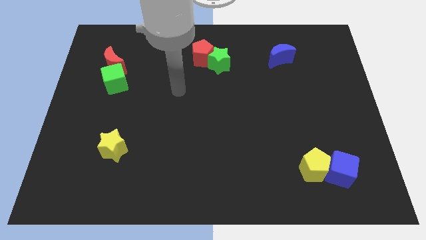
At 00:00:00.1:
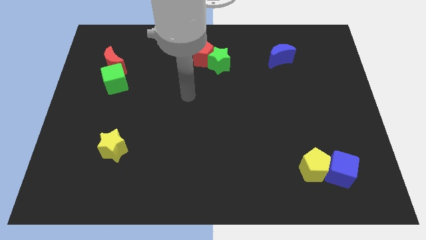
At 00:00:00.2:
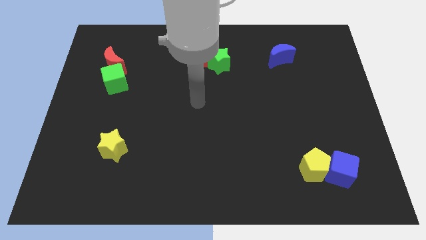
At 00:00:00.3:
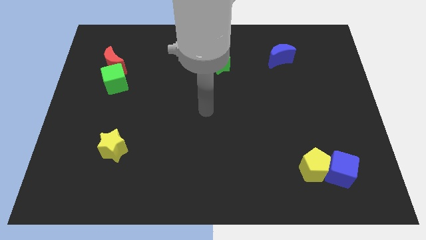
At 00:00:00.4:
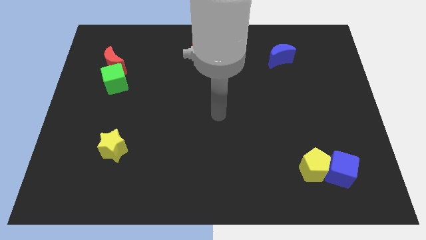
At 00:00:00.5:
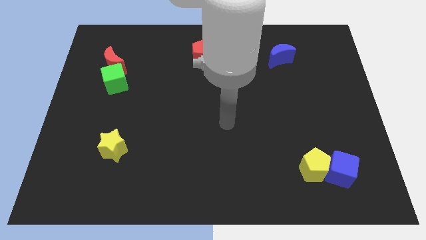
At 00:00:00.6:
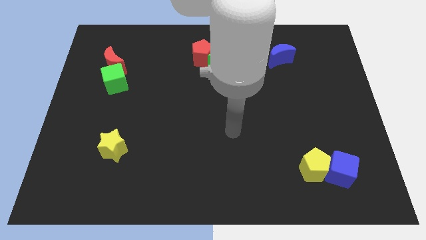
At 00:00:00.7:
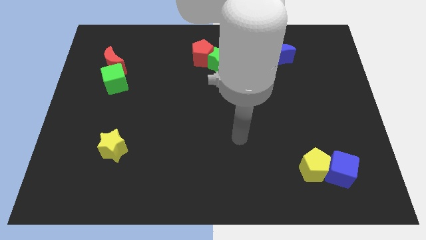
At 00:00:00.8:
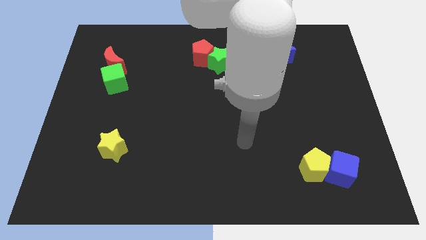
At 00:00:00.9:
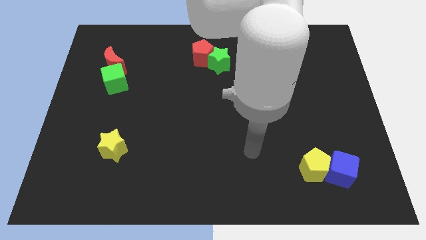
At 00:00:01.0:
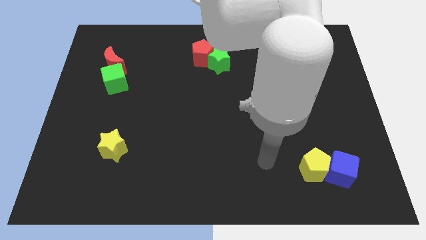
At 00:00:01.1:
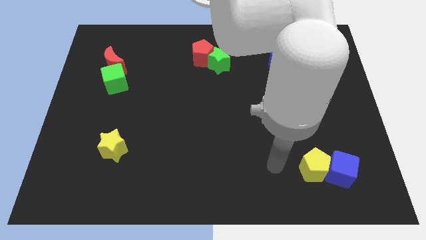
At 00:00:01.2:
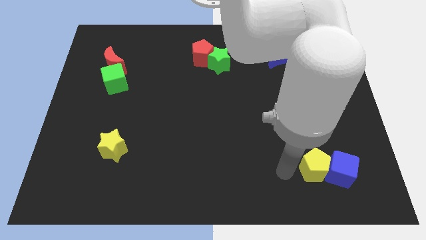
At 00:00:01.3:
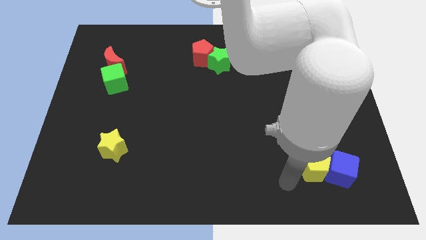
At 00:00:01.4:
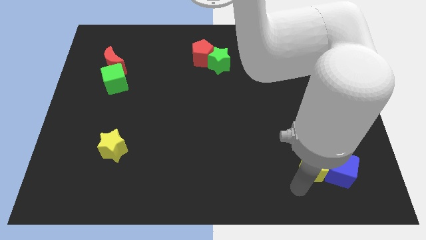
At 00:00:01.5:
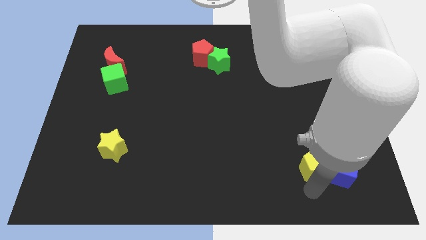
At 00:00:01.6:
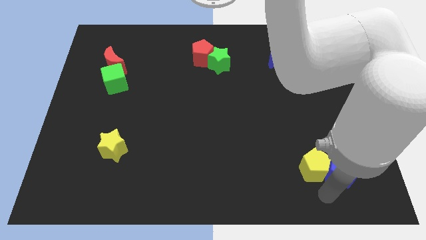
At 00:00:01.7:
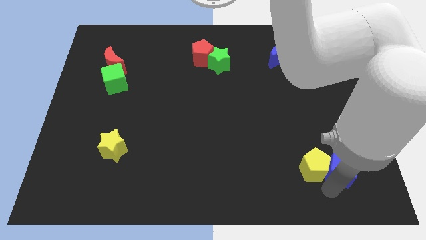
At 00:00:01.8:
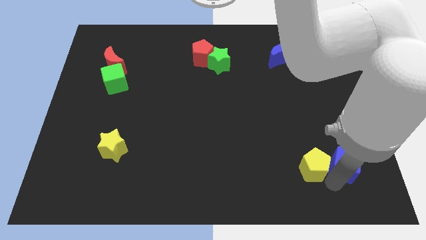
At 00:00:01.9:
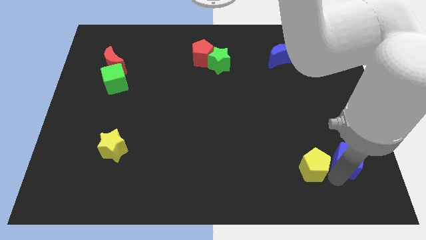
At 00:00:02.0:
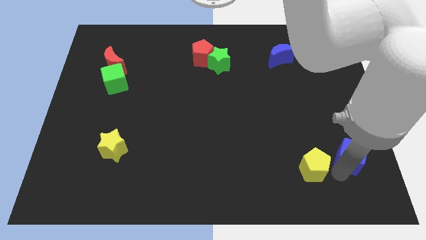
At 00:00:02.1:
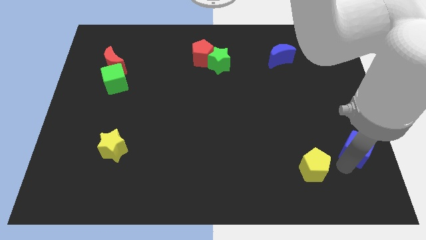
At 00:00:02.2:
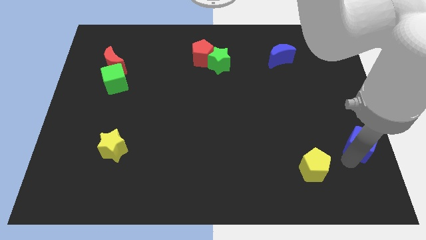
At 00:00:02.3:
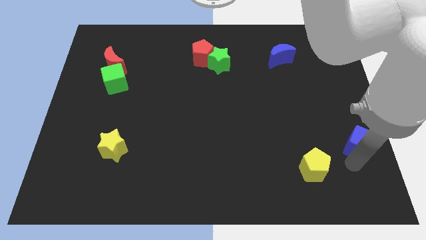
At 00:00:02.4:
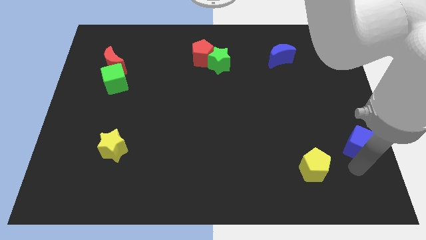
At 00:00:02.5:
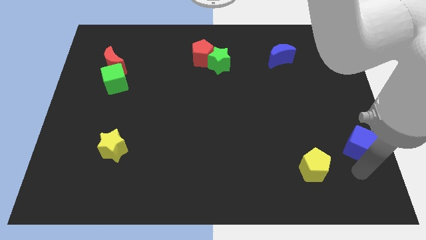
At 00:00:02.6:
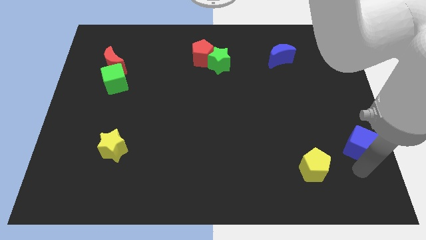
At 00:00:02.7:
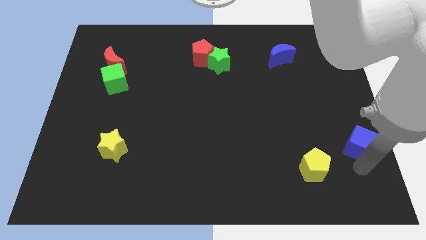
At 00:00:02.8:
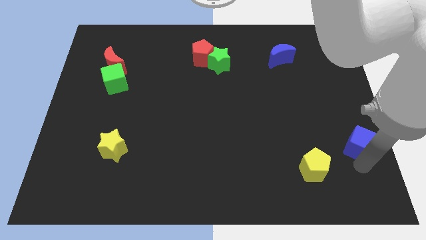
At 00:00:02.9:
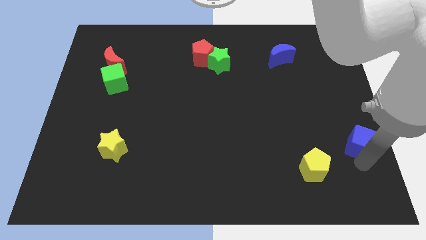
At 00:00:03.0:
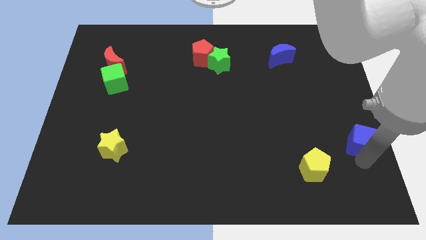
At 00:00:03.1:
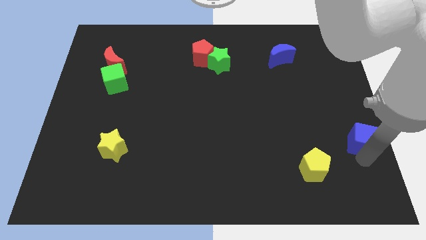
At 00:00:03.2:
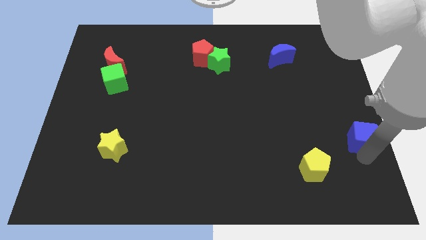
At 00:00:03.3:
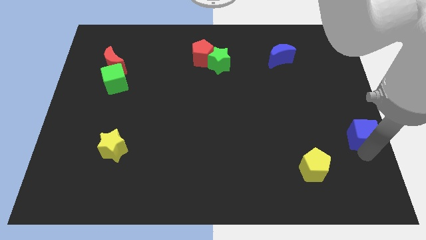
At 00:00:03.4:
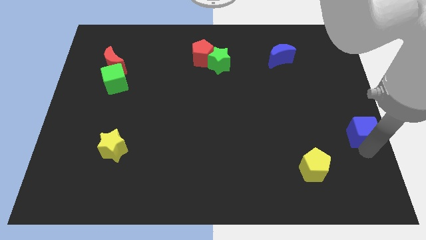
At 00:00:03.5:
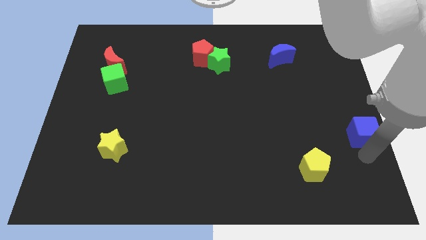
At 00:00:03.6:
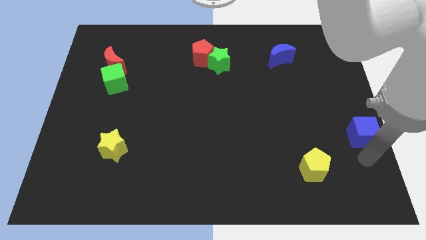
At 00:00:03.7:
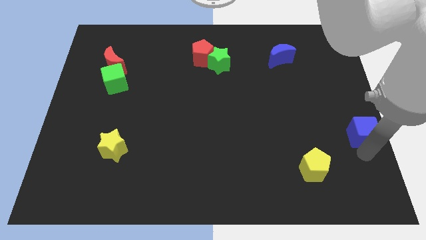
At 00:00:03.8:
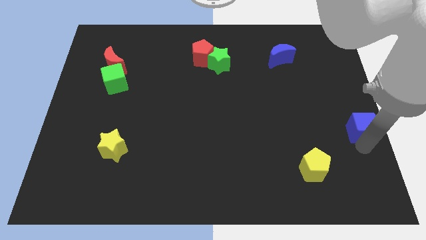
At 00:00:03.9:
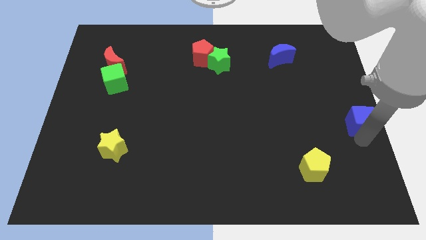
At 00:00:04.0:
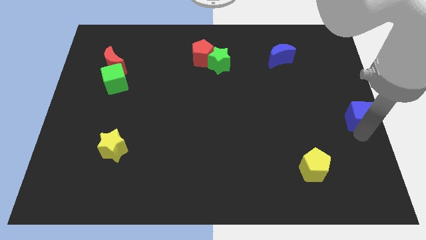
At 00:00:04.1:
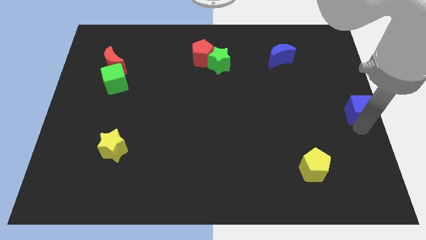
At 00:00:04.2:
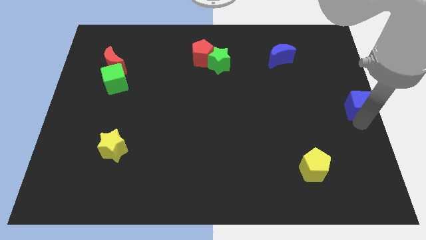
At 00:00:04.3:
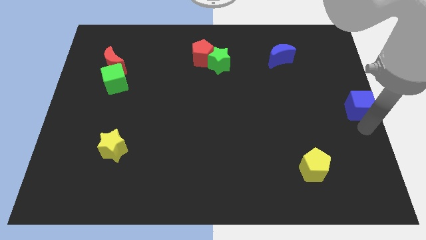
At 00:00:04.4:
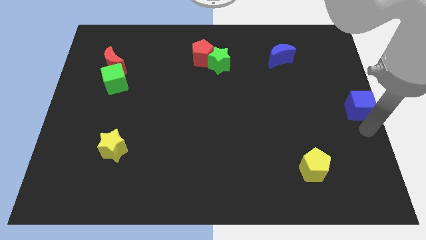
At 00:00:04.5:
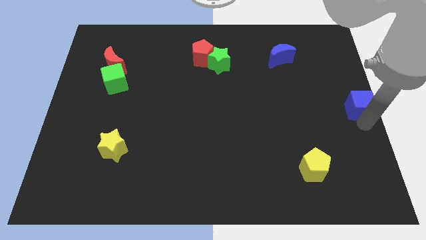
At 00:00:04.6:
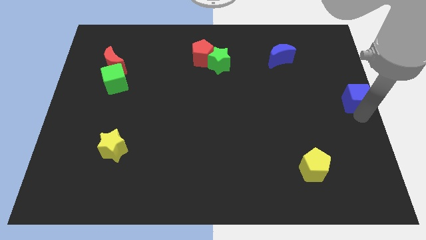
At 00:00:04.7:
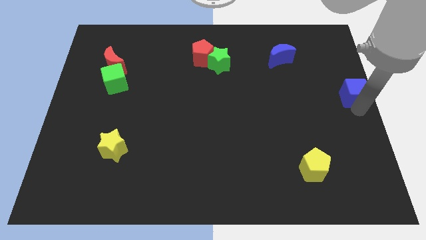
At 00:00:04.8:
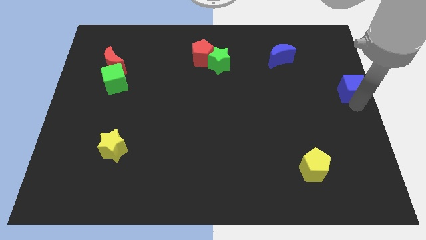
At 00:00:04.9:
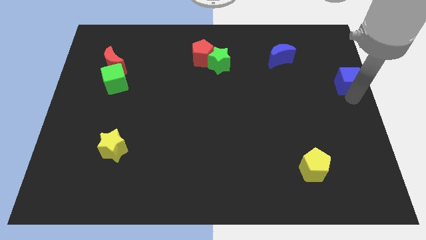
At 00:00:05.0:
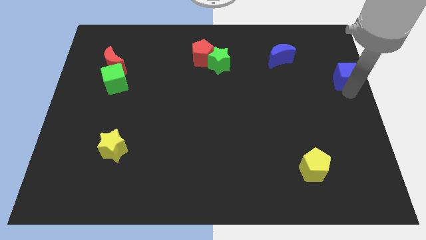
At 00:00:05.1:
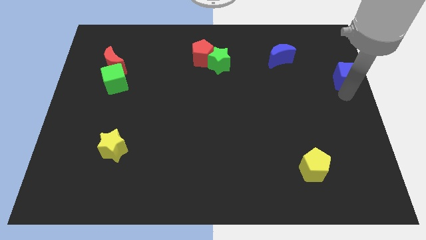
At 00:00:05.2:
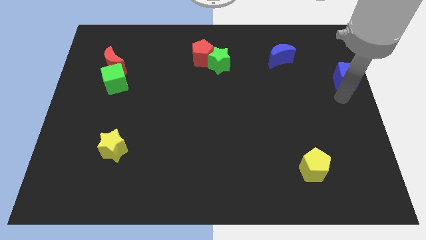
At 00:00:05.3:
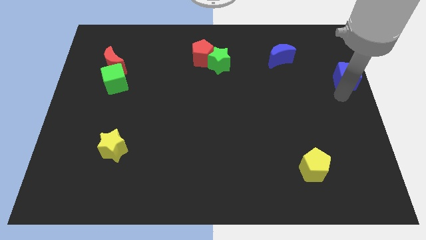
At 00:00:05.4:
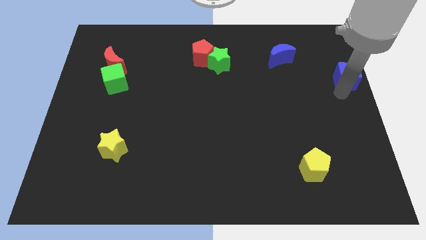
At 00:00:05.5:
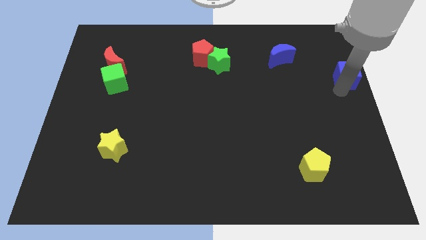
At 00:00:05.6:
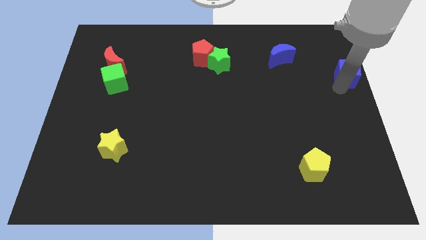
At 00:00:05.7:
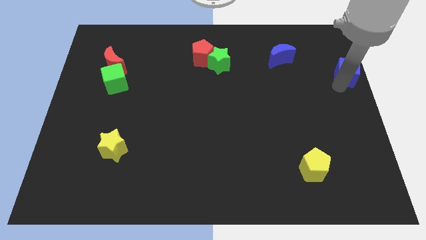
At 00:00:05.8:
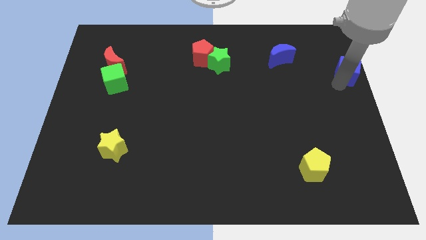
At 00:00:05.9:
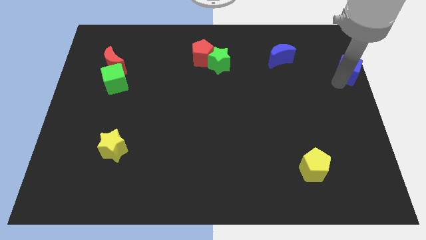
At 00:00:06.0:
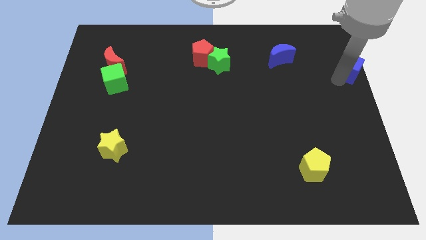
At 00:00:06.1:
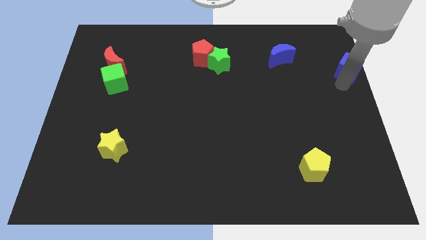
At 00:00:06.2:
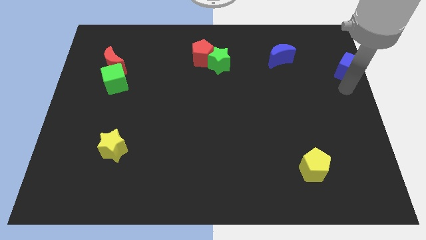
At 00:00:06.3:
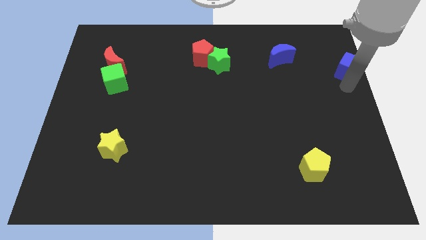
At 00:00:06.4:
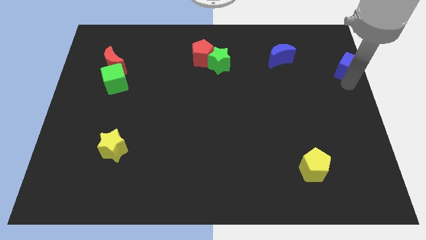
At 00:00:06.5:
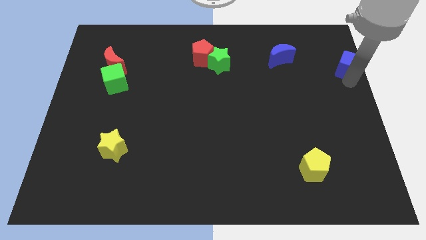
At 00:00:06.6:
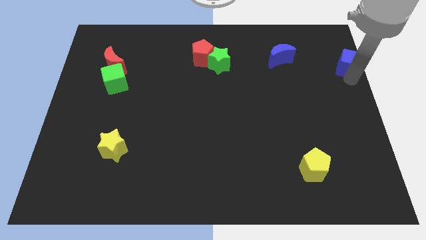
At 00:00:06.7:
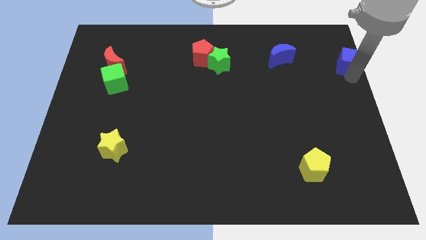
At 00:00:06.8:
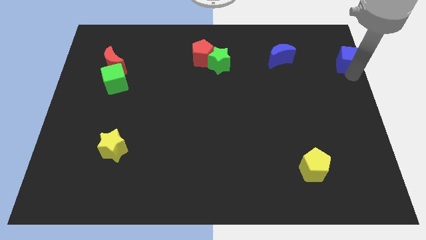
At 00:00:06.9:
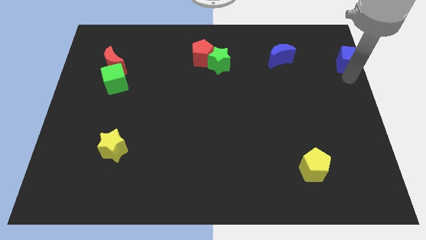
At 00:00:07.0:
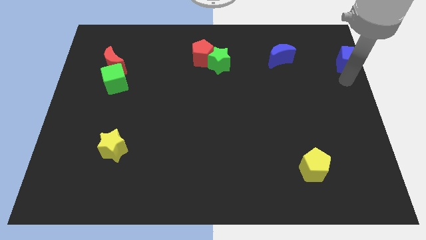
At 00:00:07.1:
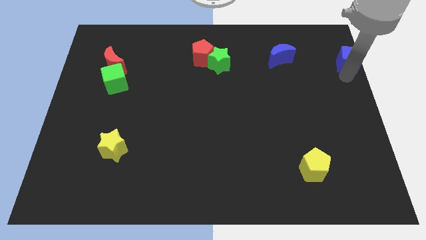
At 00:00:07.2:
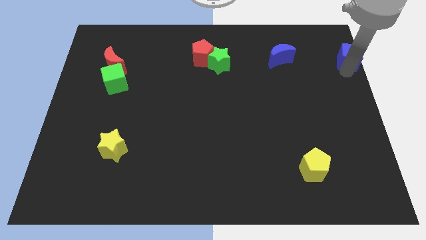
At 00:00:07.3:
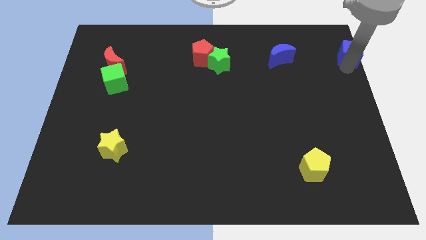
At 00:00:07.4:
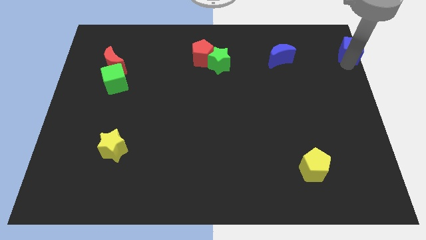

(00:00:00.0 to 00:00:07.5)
move the blue cube to the top right of the board

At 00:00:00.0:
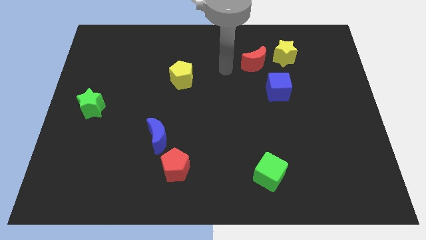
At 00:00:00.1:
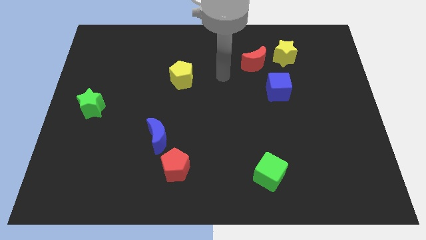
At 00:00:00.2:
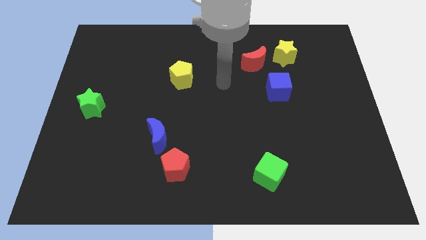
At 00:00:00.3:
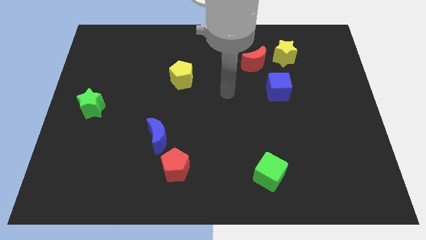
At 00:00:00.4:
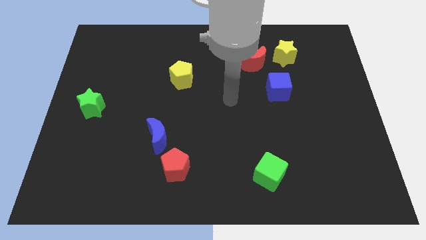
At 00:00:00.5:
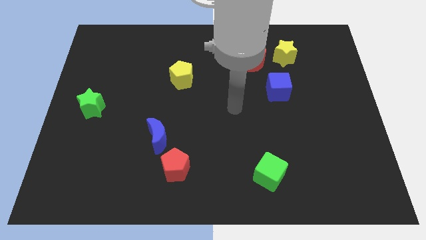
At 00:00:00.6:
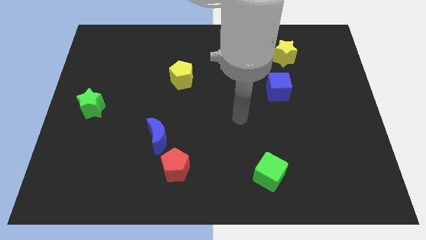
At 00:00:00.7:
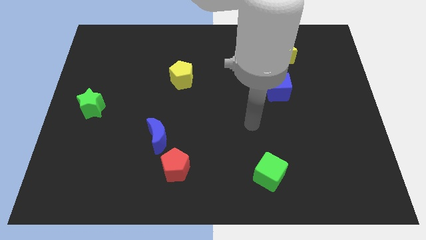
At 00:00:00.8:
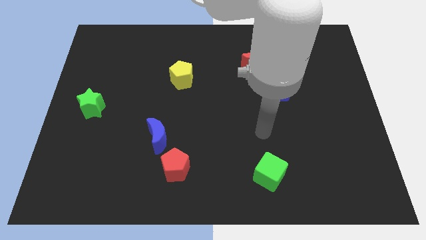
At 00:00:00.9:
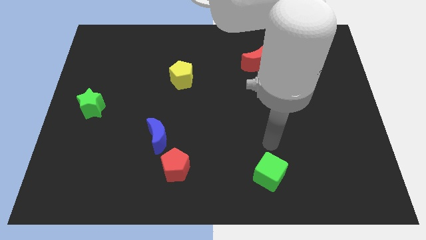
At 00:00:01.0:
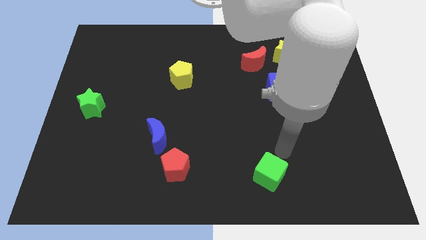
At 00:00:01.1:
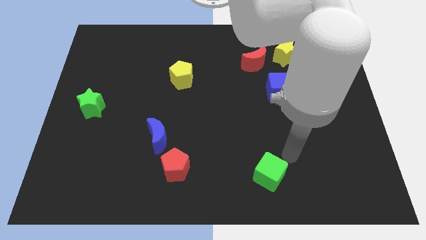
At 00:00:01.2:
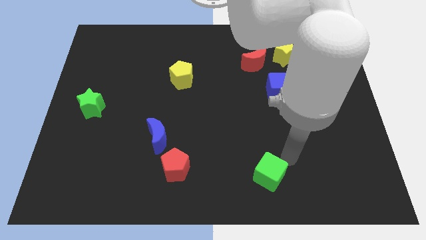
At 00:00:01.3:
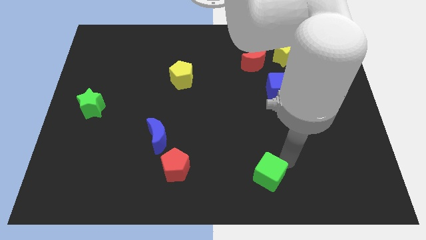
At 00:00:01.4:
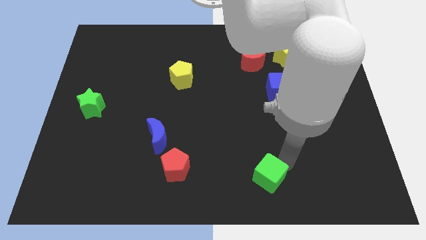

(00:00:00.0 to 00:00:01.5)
slide the green cube to the bottom side
